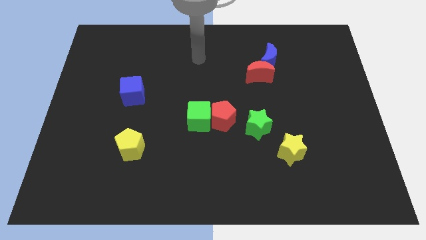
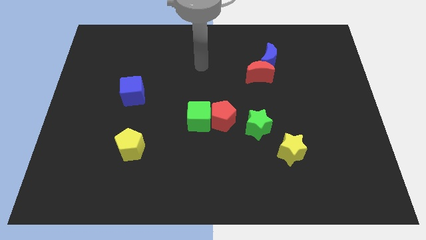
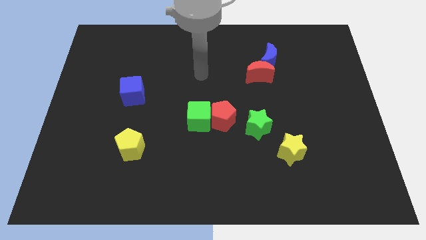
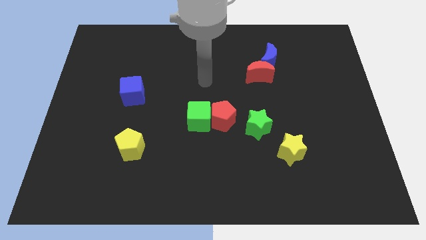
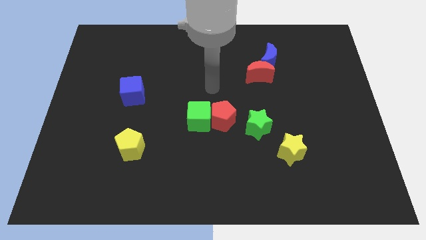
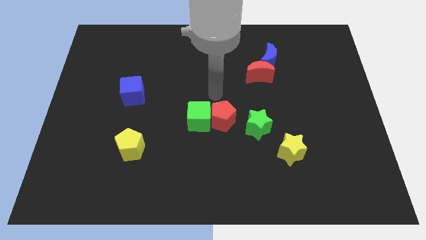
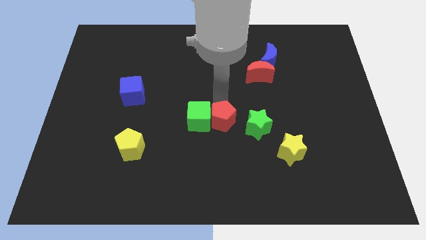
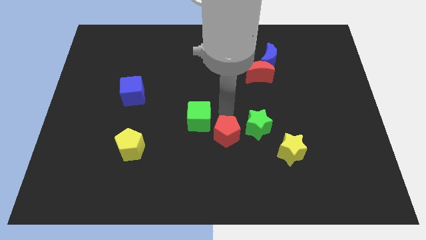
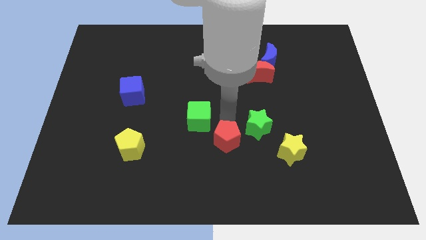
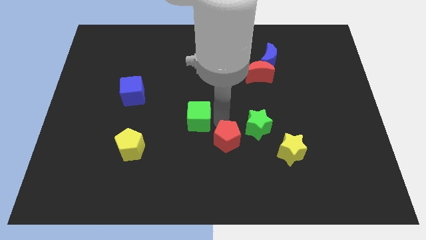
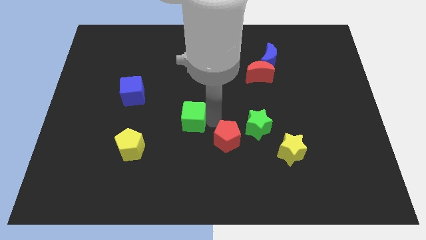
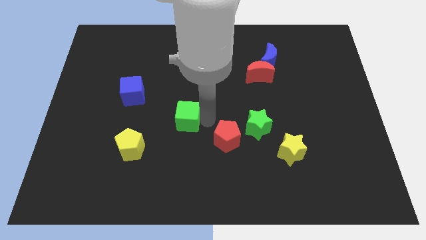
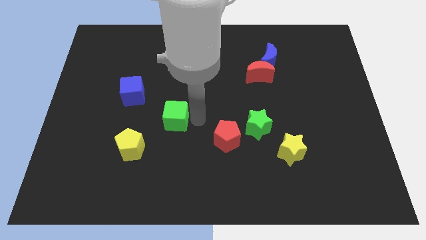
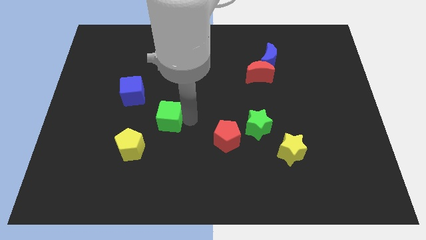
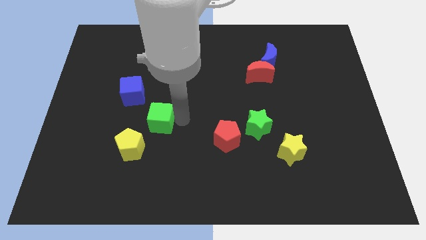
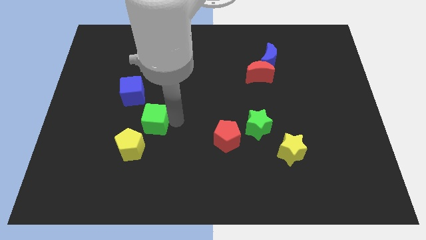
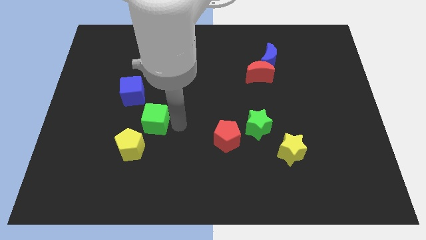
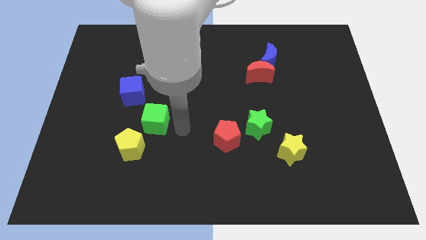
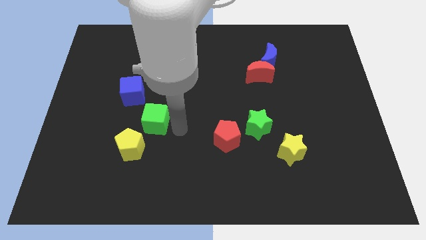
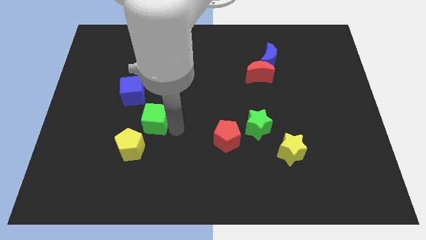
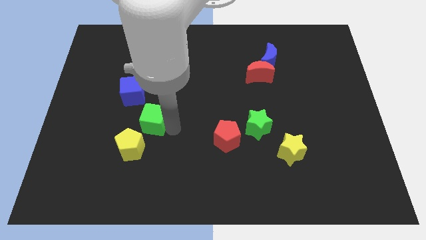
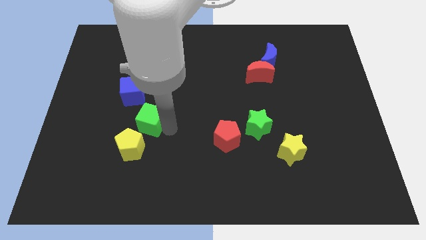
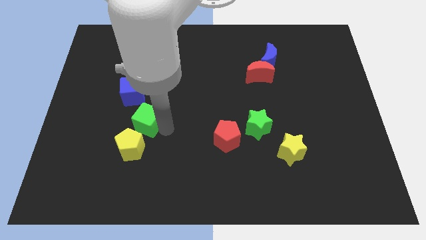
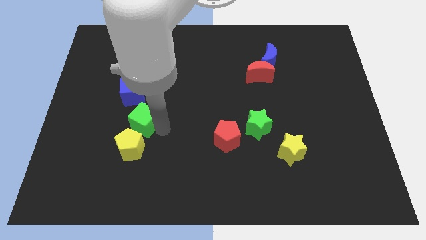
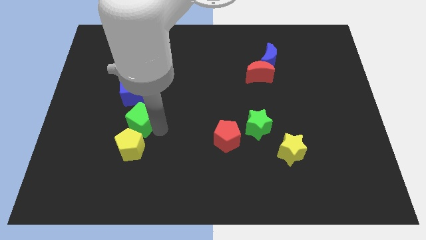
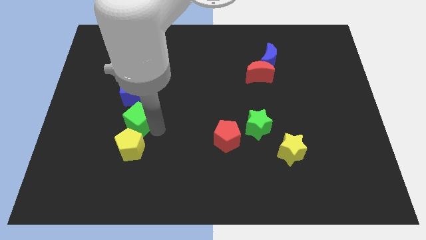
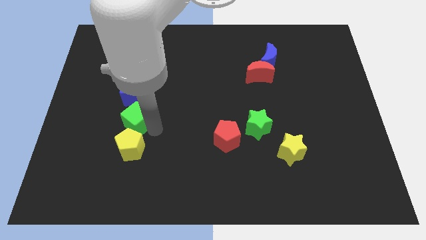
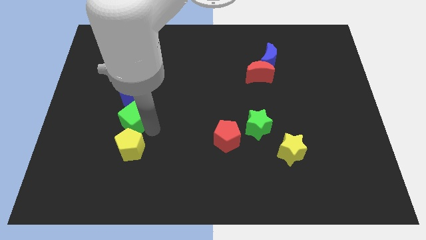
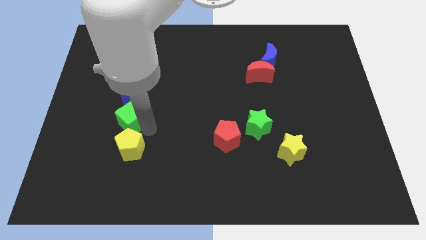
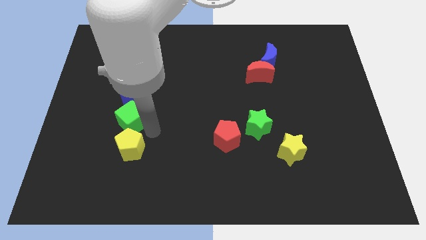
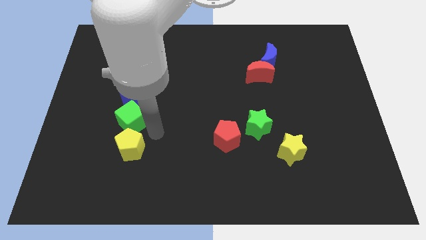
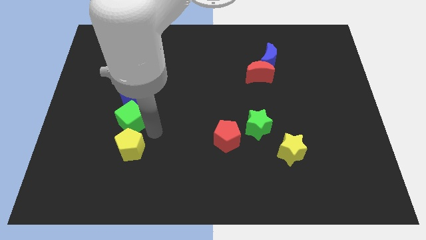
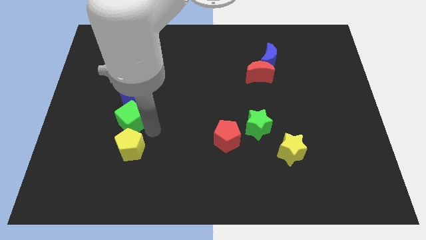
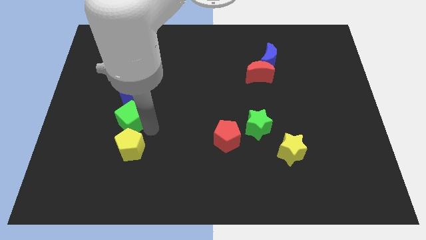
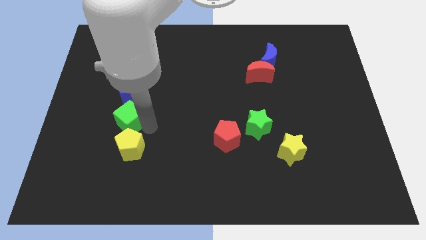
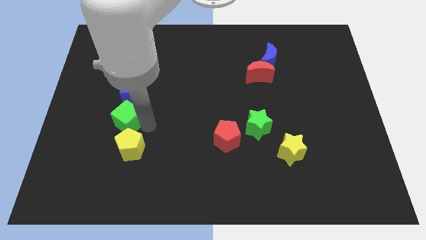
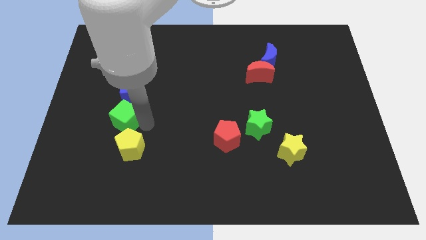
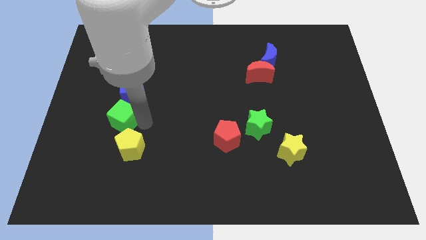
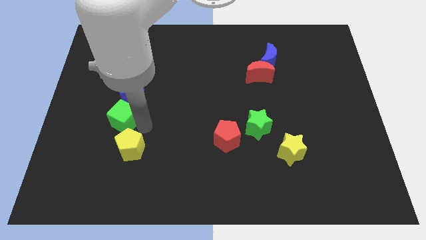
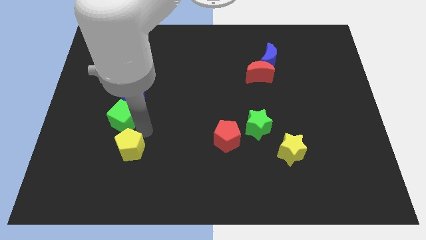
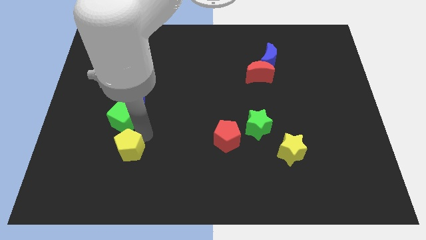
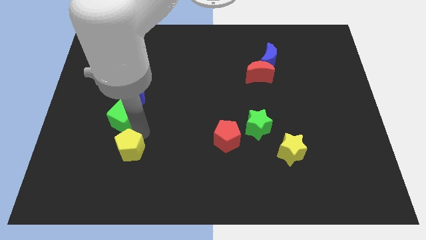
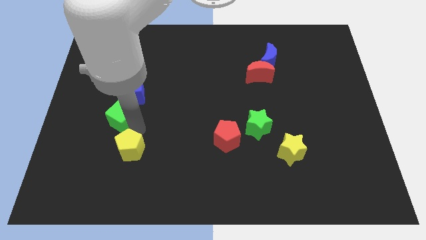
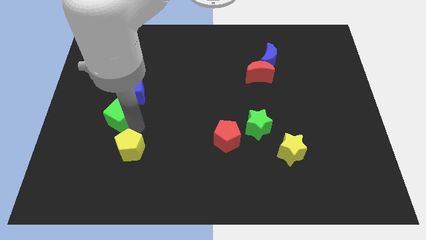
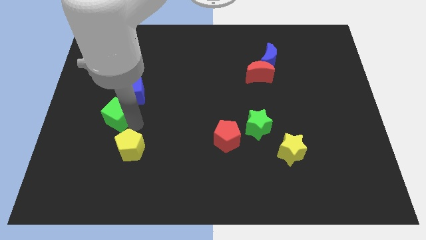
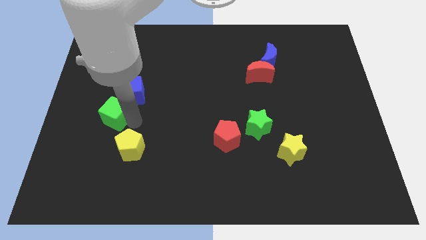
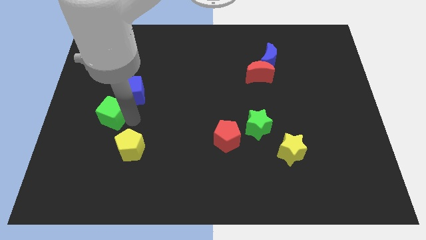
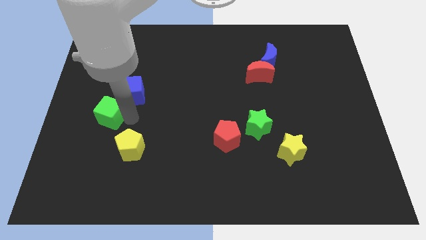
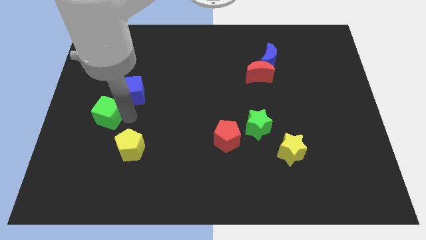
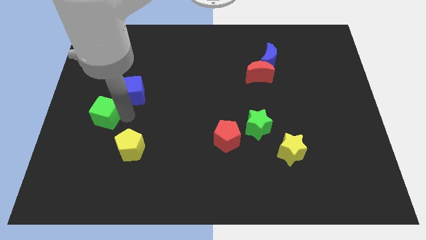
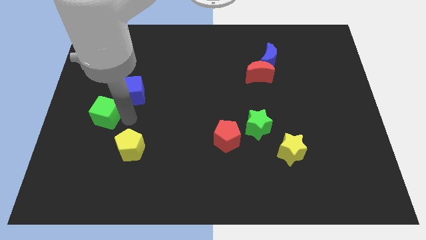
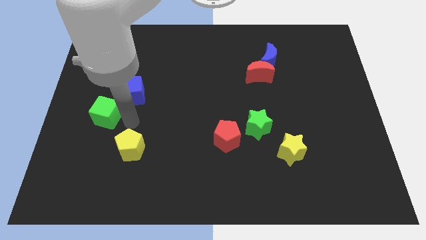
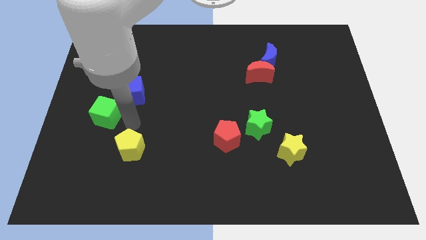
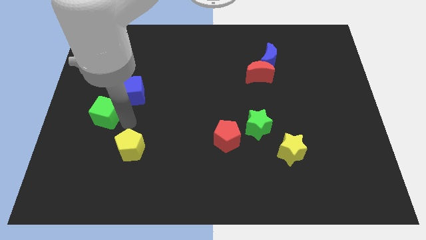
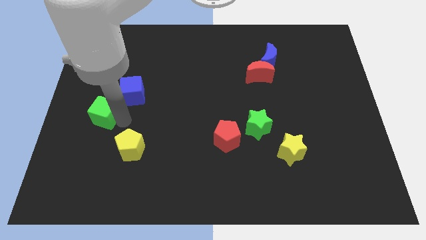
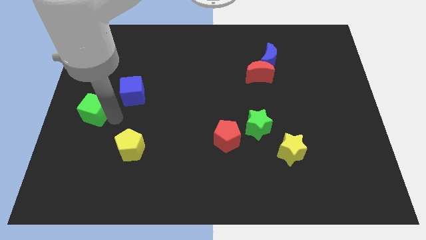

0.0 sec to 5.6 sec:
move the green cube to the center left

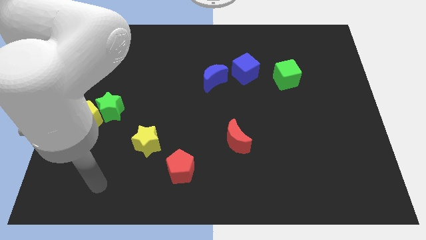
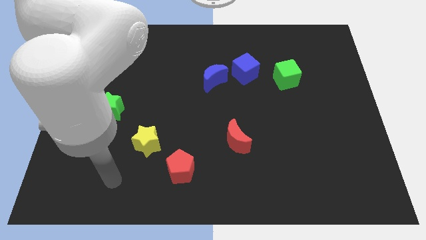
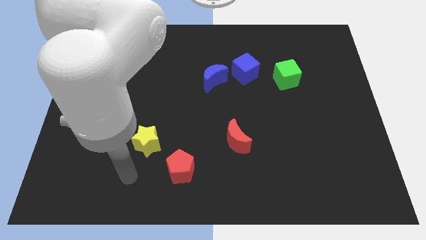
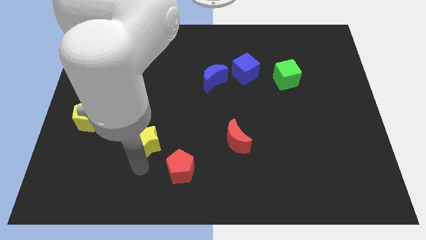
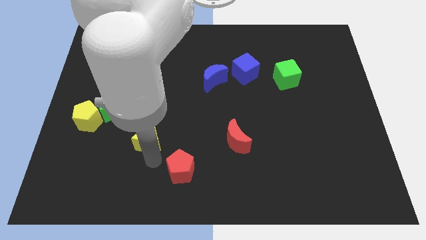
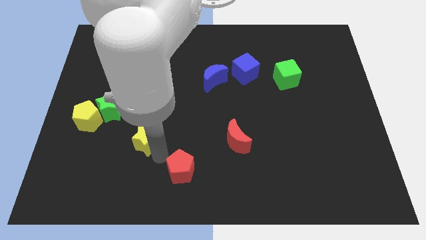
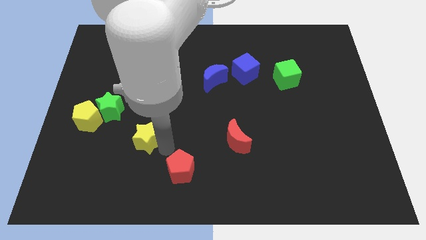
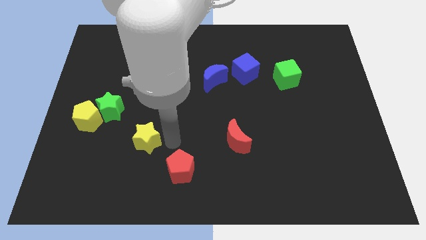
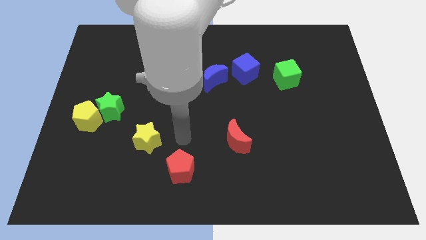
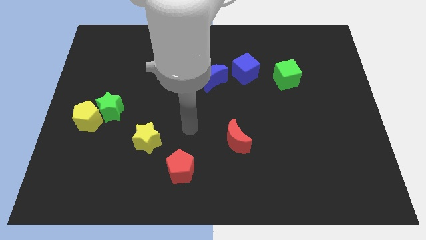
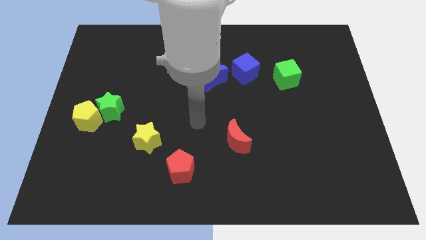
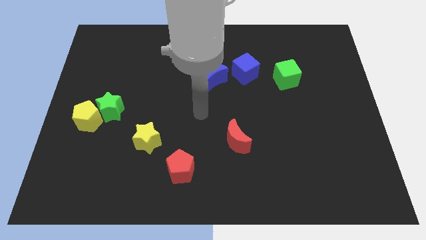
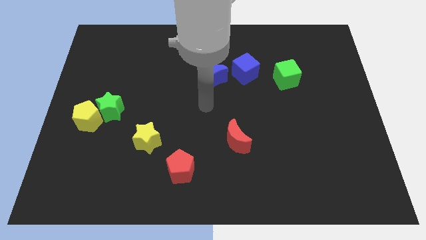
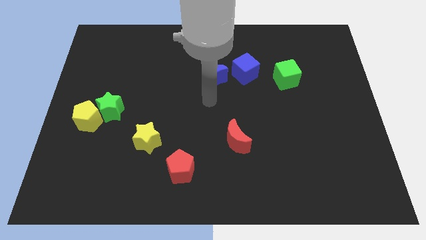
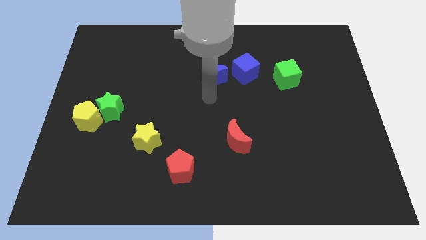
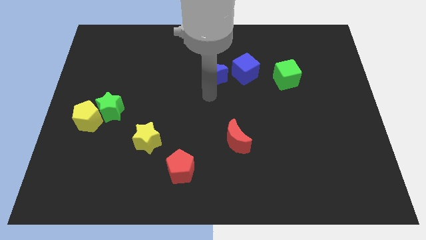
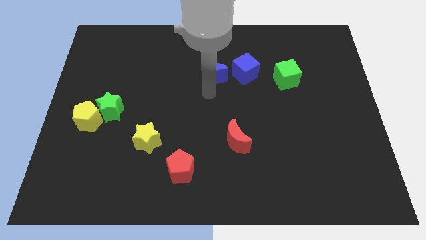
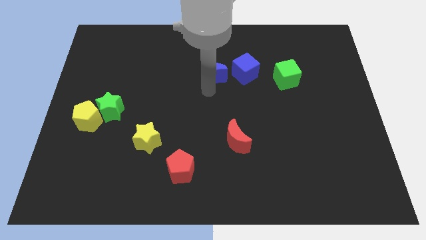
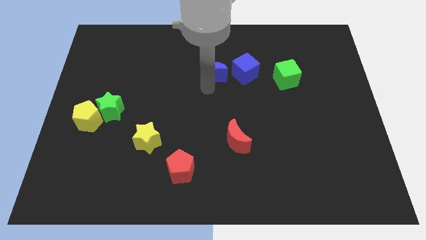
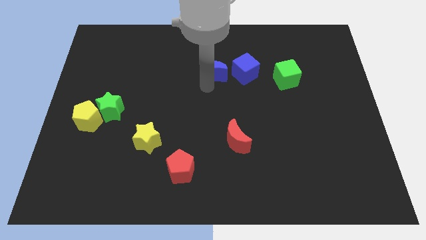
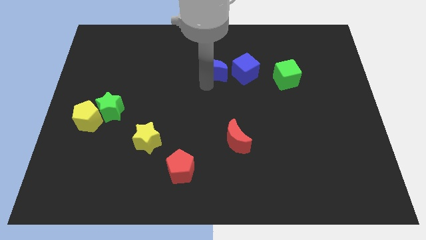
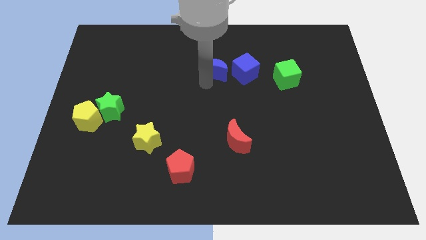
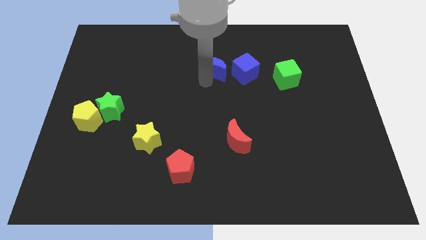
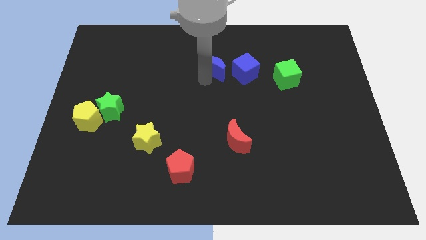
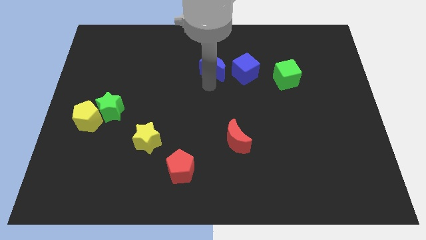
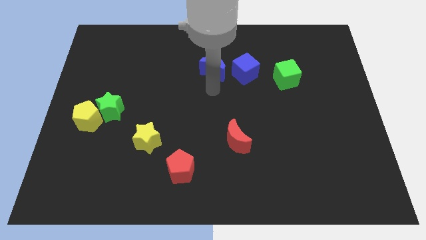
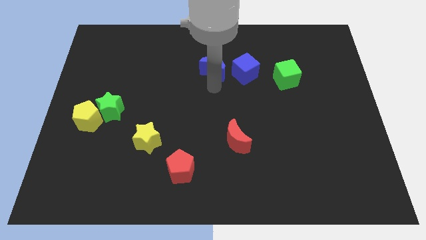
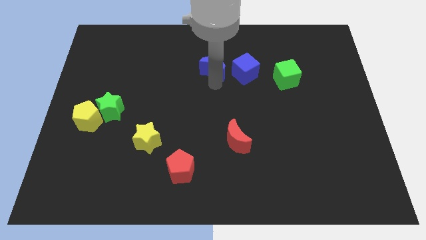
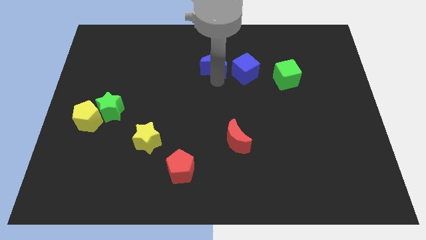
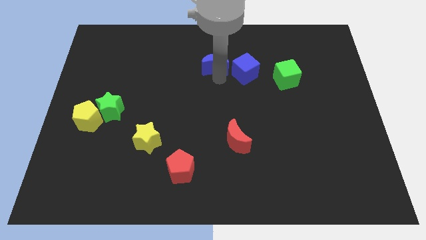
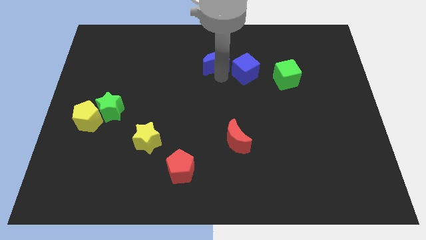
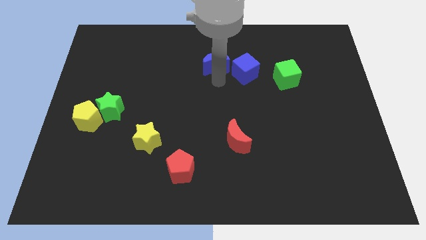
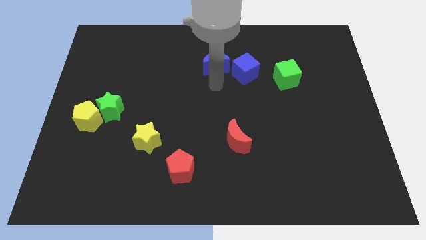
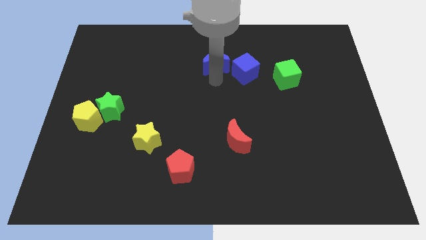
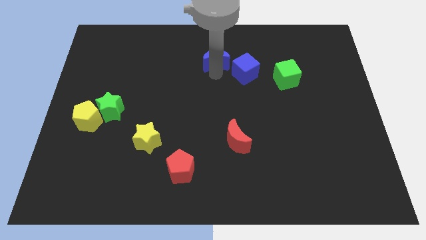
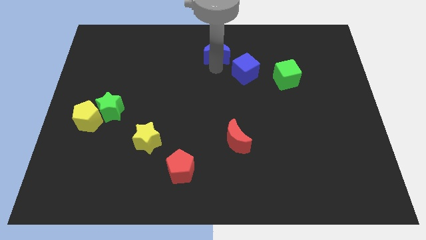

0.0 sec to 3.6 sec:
move the blue moon to the towards your base
